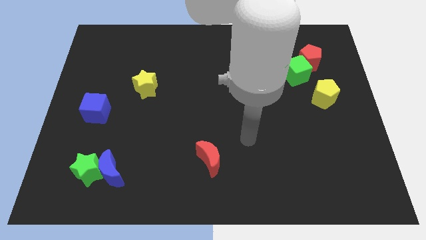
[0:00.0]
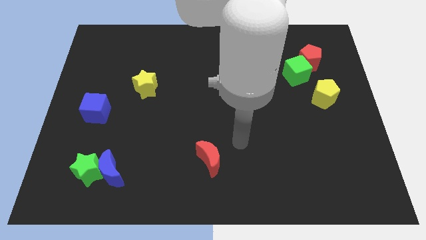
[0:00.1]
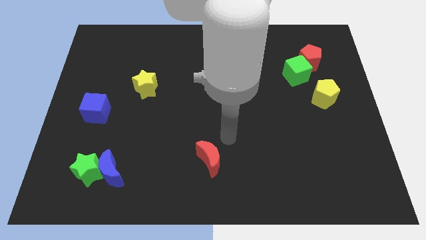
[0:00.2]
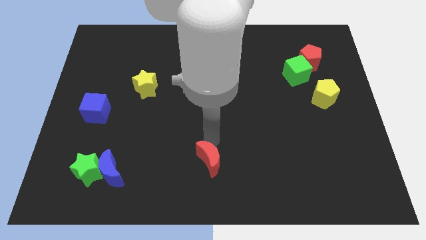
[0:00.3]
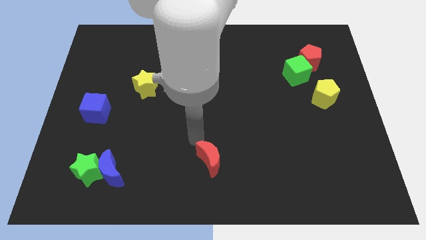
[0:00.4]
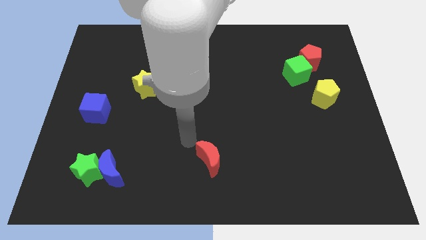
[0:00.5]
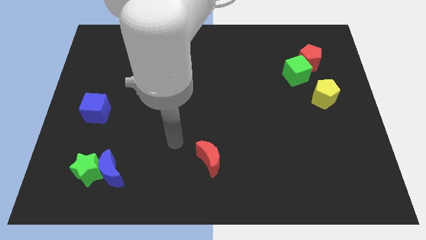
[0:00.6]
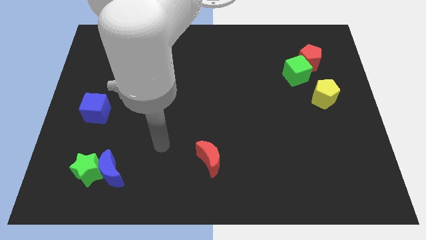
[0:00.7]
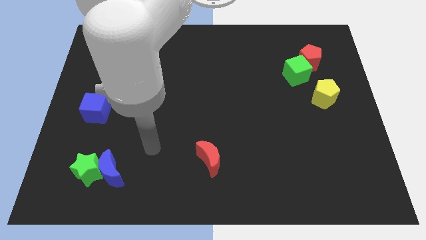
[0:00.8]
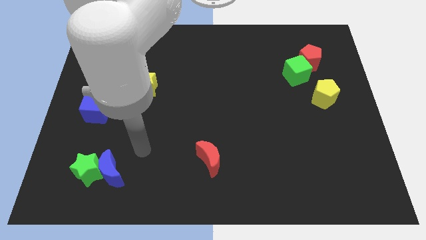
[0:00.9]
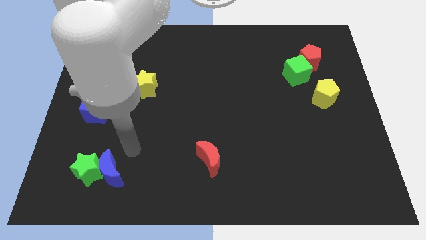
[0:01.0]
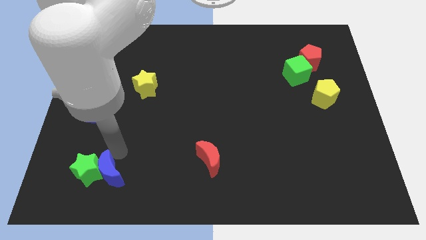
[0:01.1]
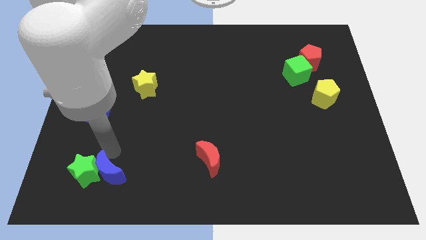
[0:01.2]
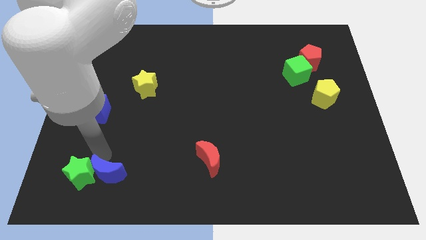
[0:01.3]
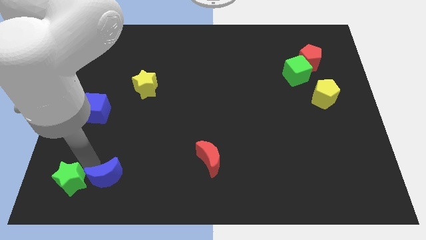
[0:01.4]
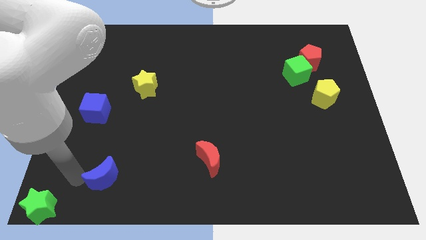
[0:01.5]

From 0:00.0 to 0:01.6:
pull the blue moon apart from the green star

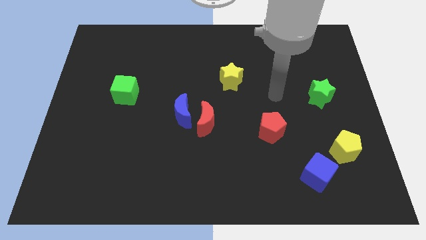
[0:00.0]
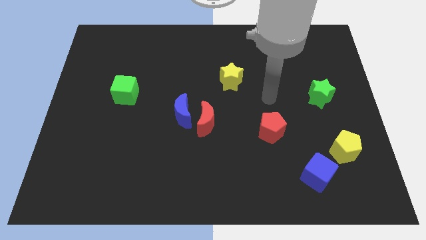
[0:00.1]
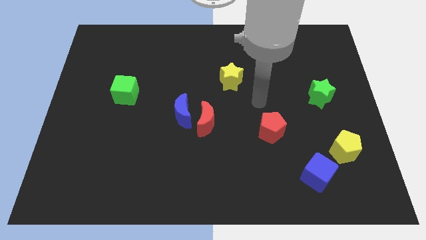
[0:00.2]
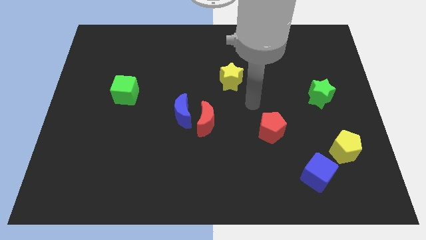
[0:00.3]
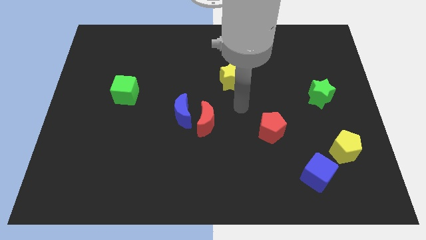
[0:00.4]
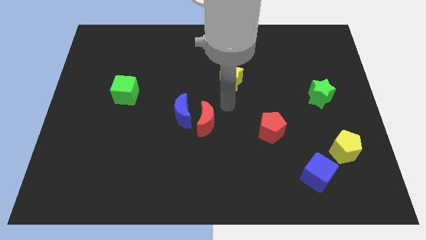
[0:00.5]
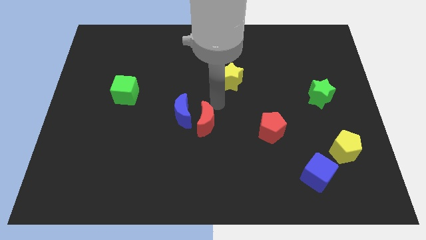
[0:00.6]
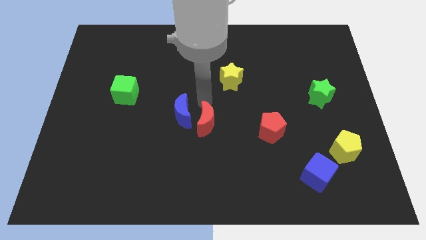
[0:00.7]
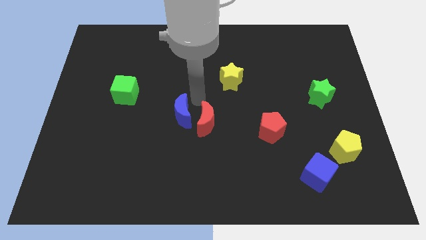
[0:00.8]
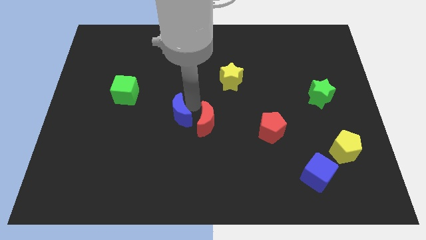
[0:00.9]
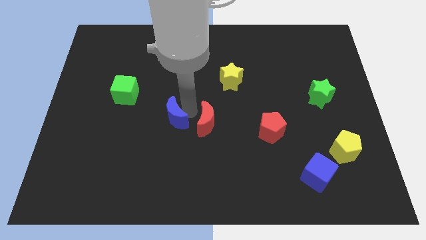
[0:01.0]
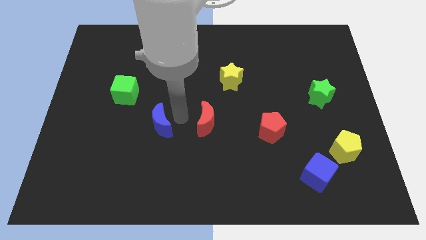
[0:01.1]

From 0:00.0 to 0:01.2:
pull the red moon apart from the blue moon

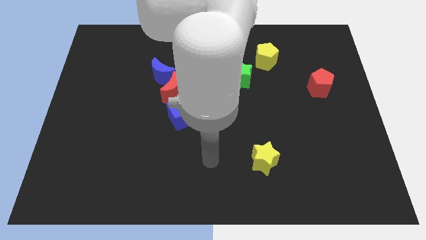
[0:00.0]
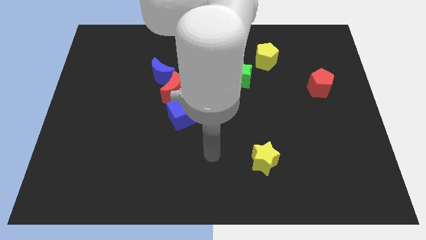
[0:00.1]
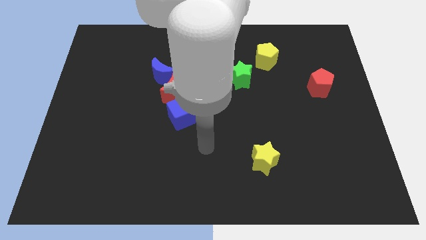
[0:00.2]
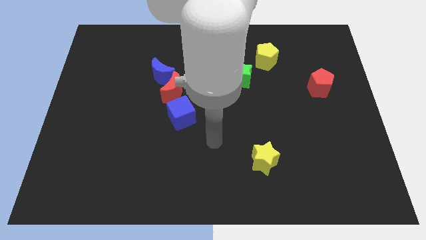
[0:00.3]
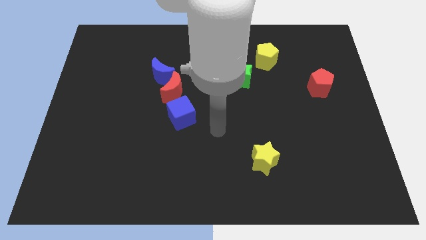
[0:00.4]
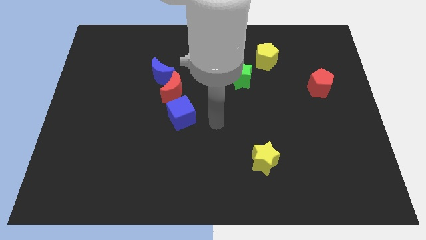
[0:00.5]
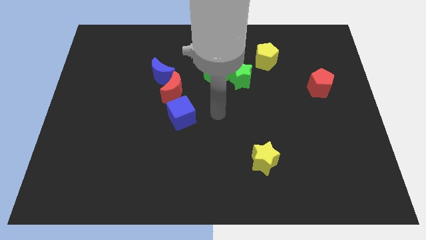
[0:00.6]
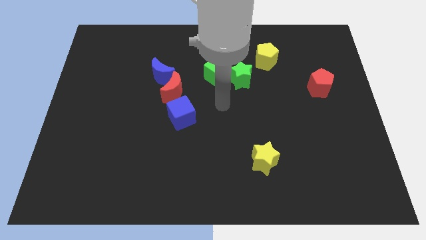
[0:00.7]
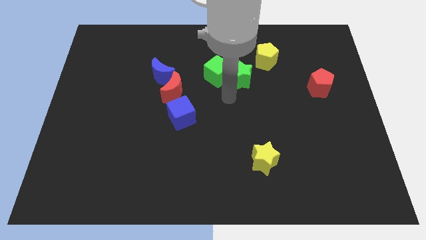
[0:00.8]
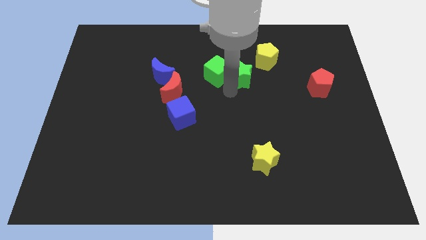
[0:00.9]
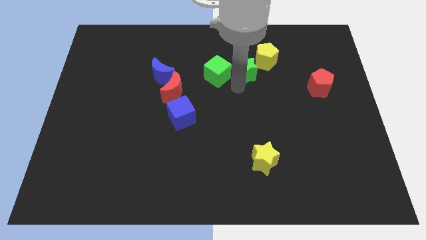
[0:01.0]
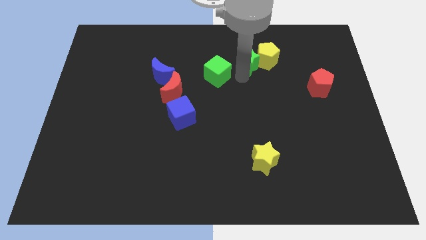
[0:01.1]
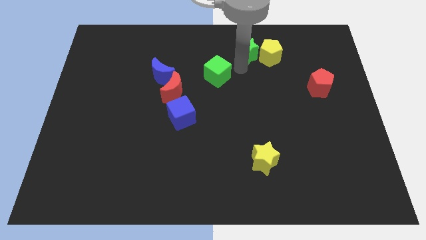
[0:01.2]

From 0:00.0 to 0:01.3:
separate the green cube from the green star

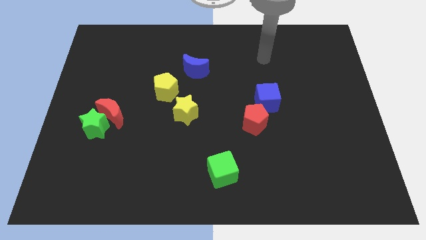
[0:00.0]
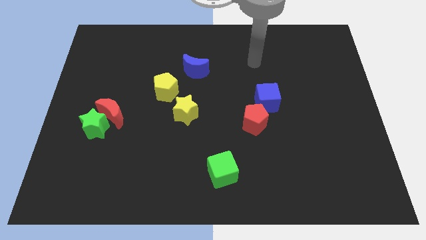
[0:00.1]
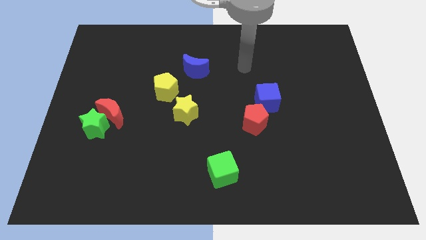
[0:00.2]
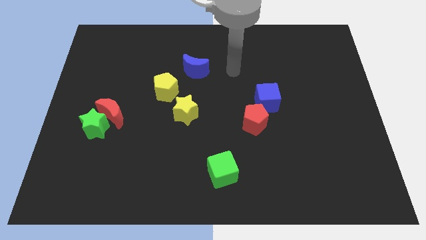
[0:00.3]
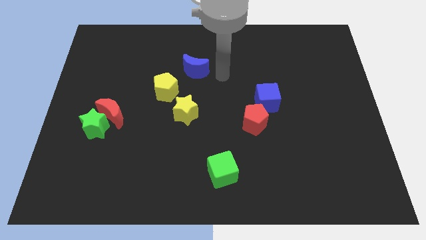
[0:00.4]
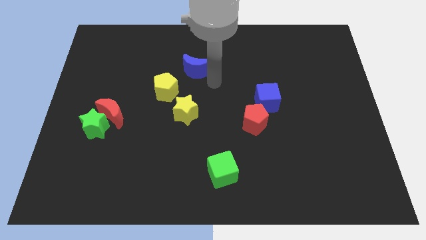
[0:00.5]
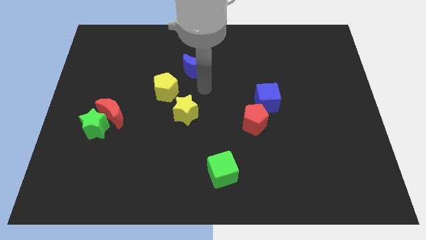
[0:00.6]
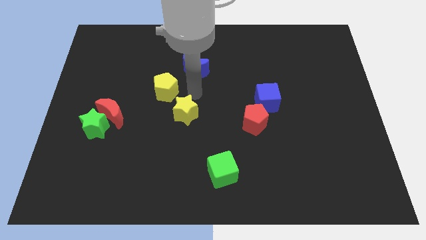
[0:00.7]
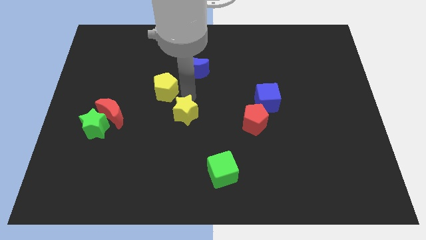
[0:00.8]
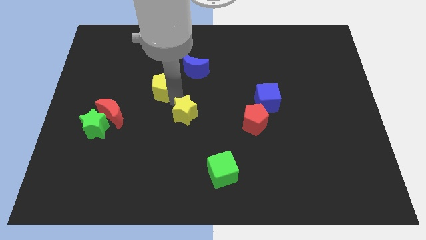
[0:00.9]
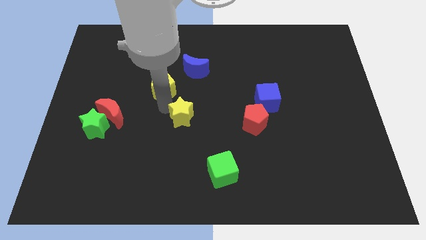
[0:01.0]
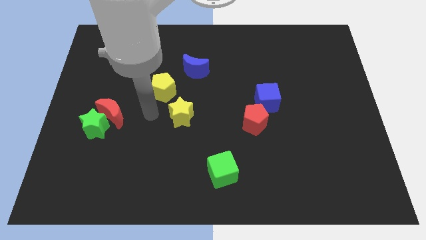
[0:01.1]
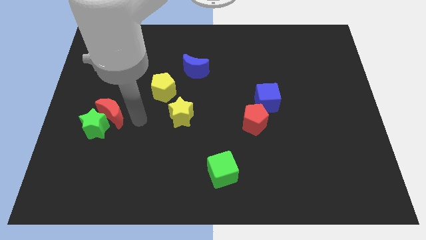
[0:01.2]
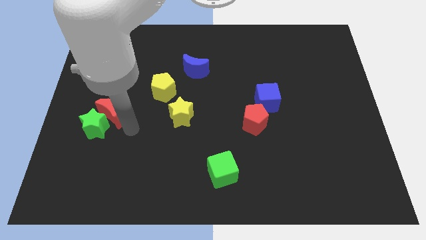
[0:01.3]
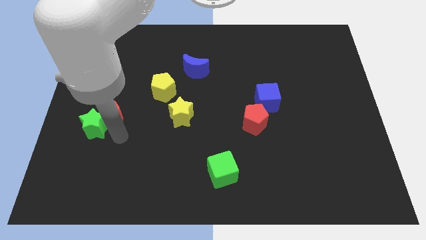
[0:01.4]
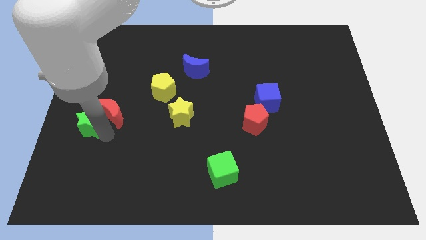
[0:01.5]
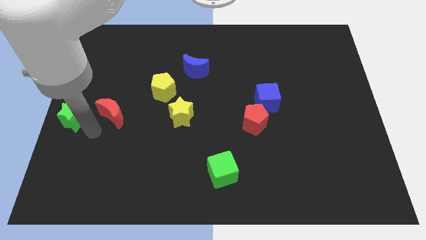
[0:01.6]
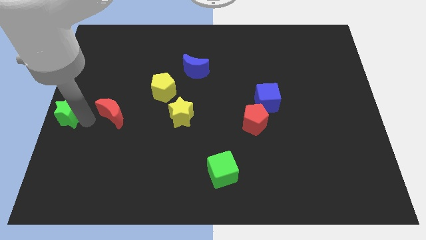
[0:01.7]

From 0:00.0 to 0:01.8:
separate the red moon from the green star

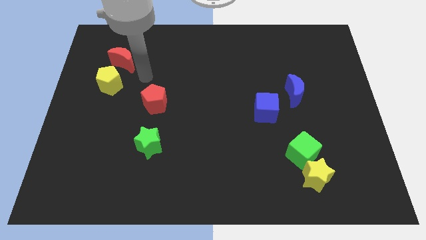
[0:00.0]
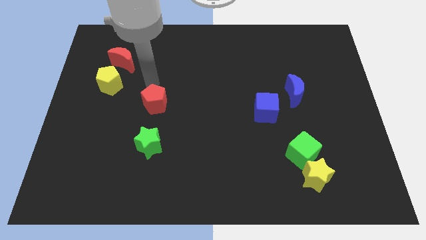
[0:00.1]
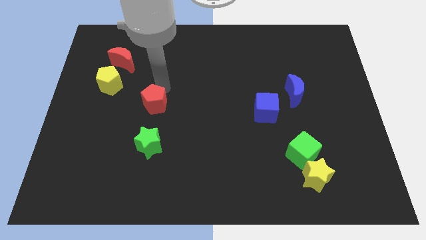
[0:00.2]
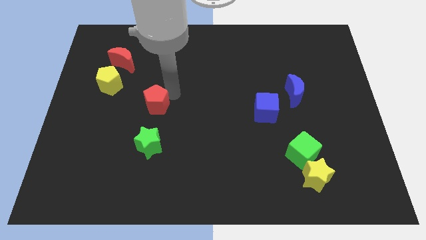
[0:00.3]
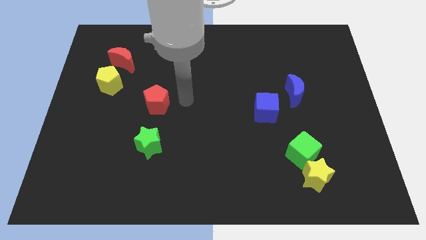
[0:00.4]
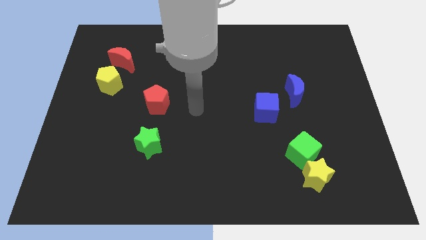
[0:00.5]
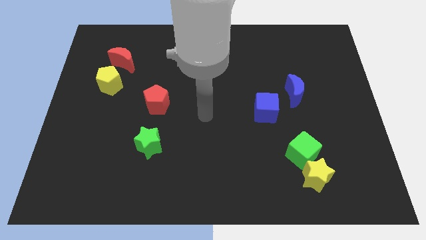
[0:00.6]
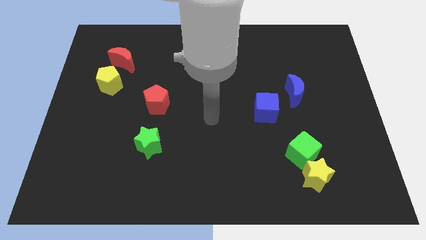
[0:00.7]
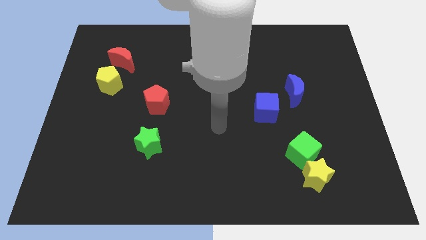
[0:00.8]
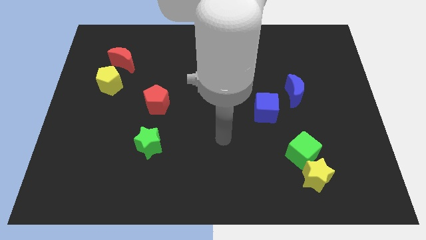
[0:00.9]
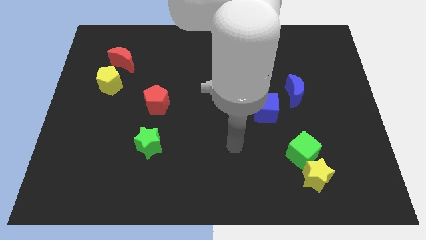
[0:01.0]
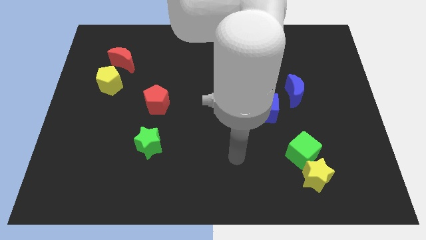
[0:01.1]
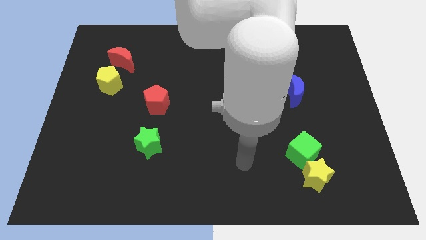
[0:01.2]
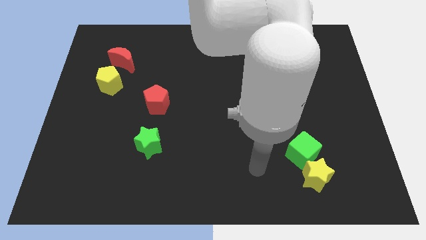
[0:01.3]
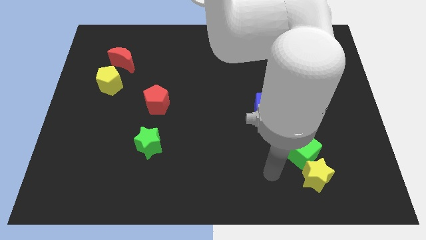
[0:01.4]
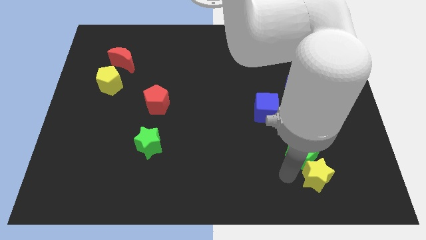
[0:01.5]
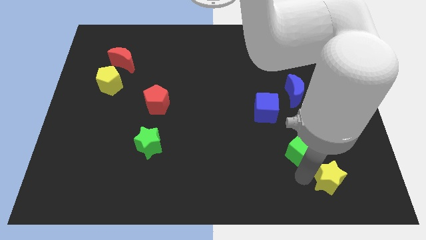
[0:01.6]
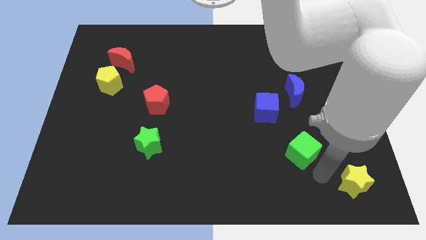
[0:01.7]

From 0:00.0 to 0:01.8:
move the green cube away from the yellow star

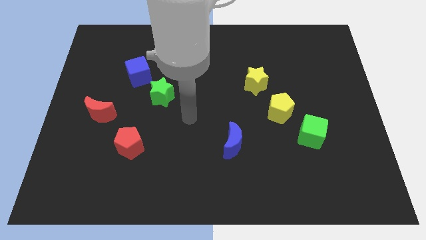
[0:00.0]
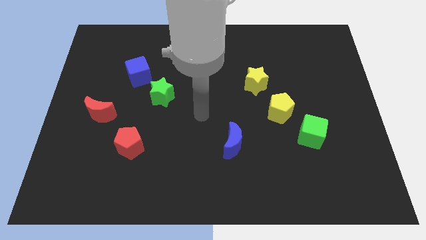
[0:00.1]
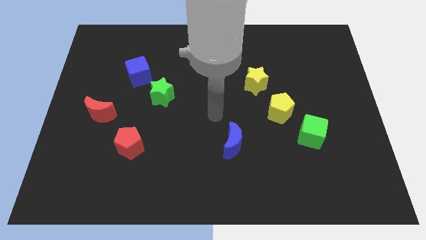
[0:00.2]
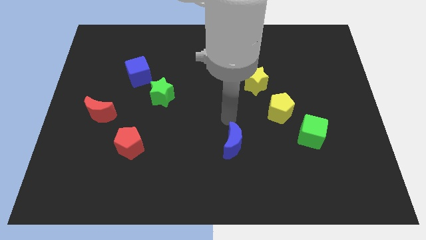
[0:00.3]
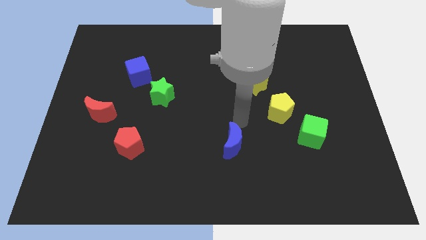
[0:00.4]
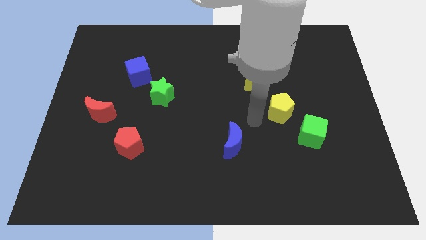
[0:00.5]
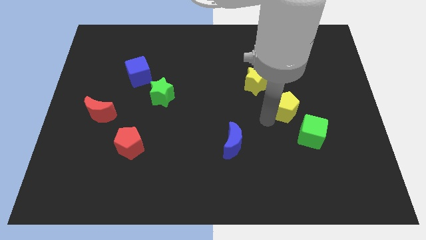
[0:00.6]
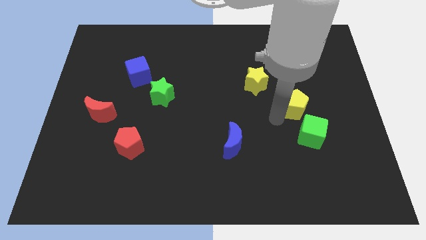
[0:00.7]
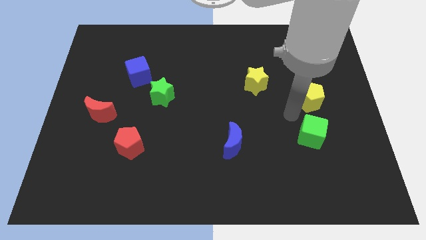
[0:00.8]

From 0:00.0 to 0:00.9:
move the green cube away from the yellow pentagon

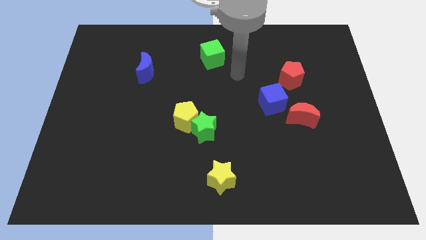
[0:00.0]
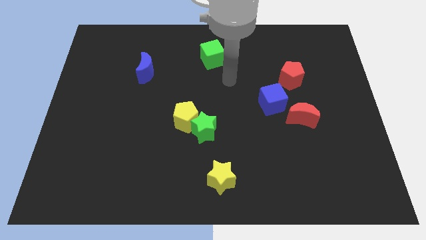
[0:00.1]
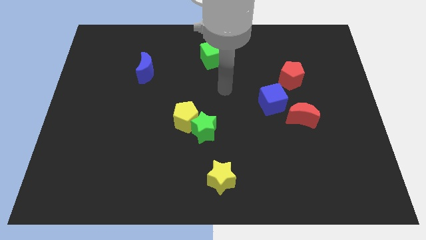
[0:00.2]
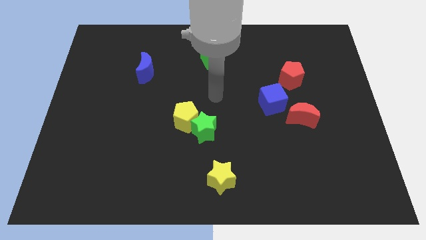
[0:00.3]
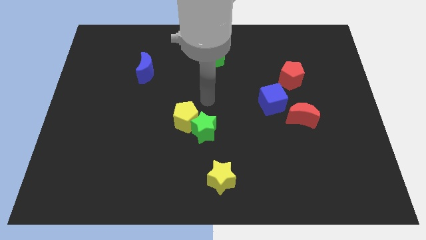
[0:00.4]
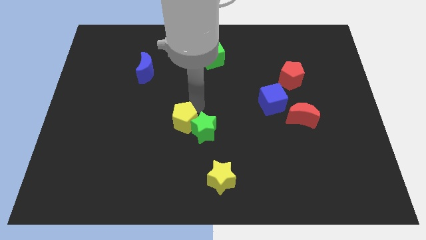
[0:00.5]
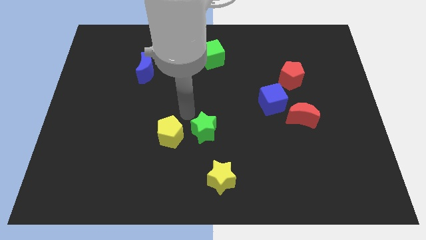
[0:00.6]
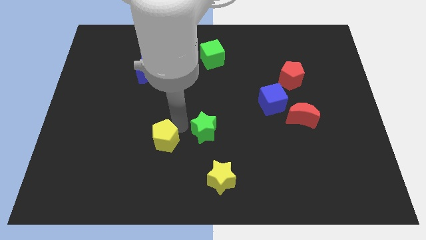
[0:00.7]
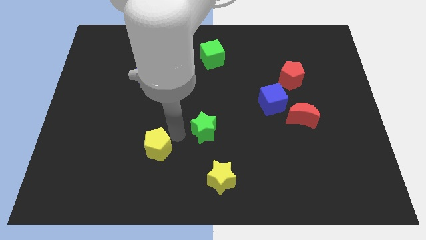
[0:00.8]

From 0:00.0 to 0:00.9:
move the green star away from the yellow pentagon
